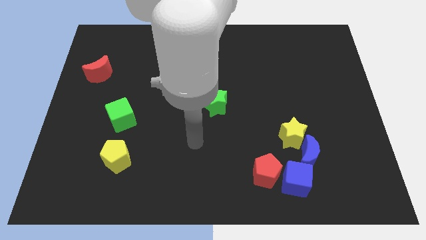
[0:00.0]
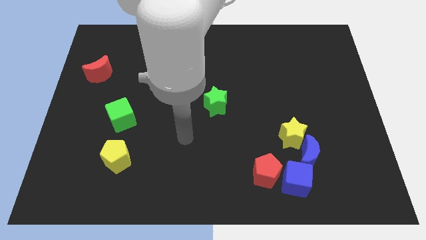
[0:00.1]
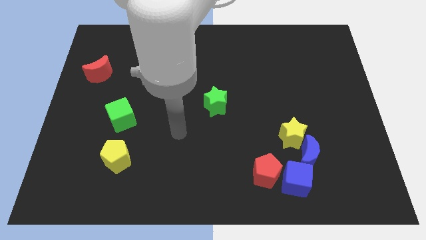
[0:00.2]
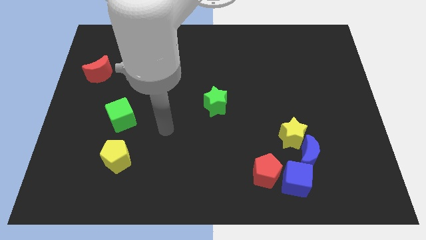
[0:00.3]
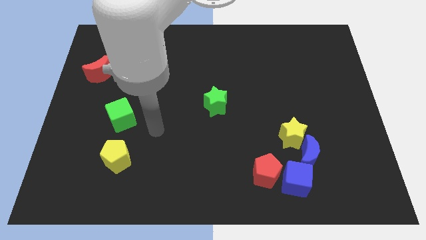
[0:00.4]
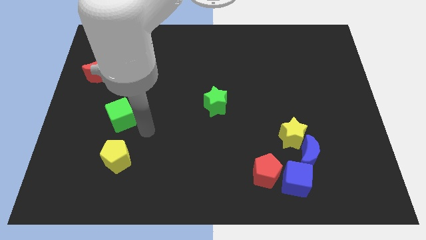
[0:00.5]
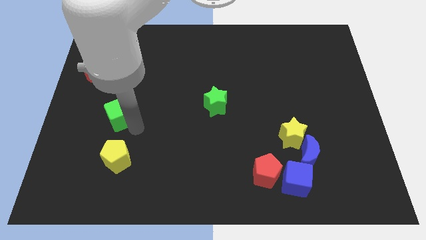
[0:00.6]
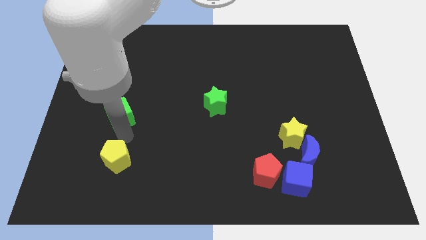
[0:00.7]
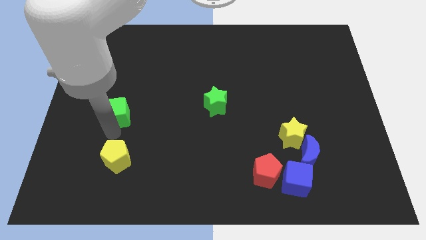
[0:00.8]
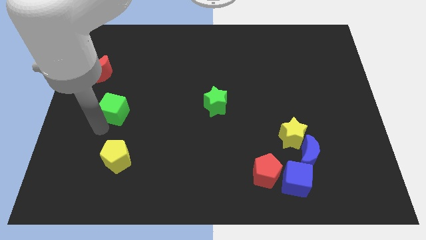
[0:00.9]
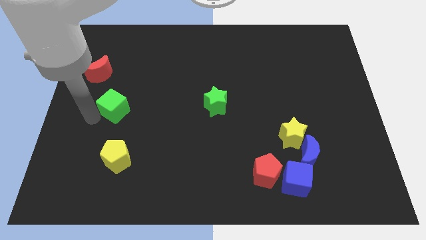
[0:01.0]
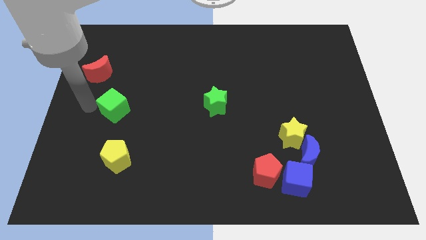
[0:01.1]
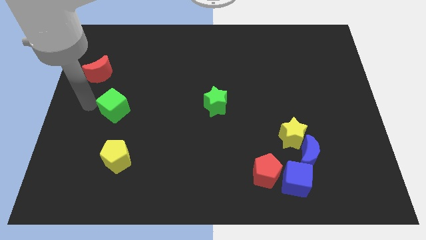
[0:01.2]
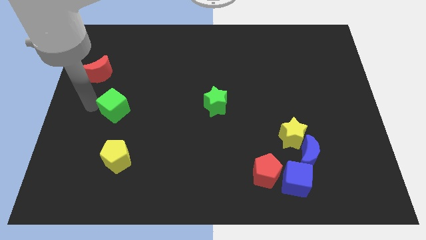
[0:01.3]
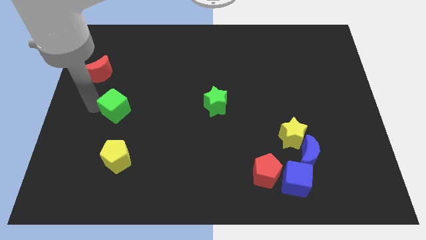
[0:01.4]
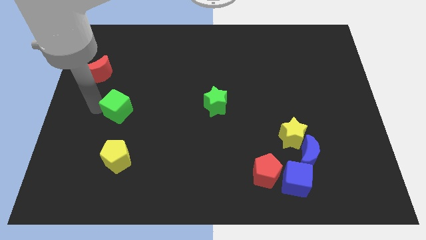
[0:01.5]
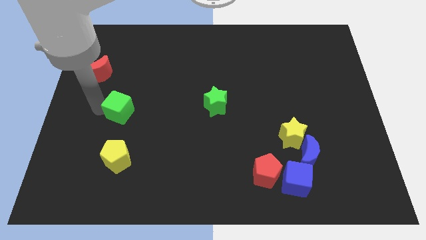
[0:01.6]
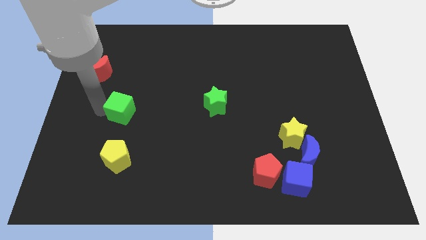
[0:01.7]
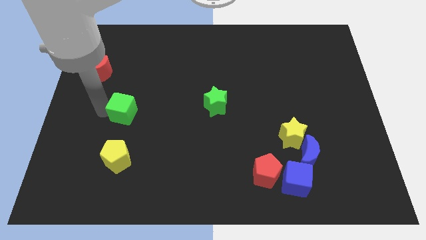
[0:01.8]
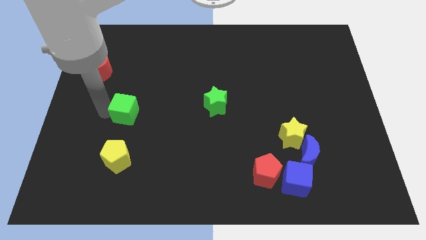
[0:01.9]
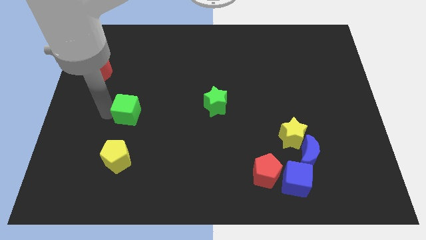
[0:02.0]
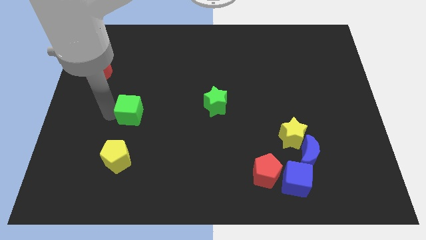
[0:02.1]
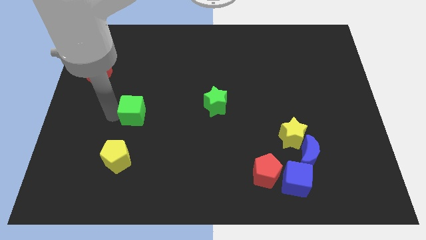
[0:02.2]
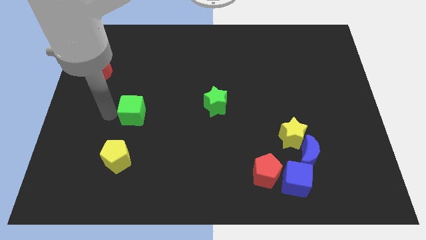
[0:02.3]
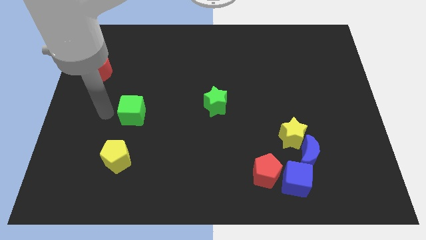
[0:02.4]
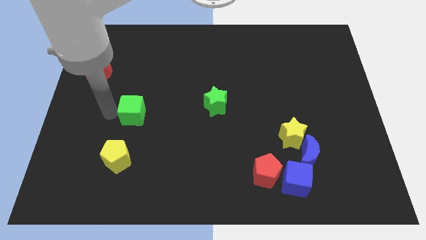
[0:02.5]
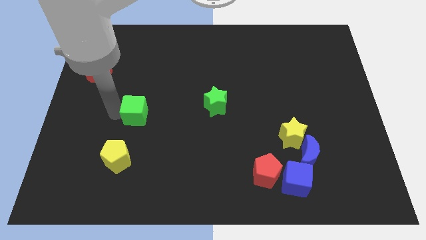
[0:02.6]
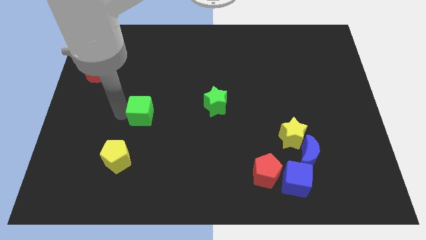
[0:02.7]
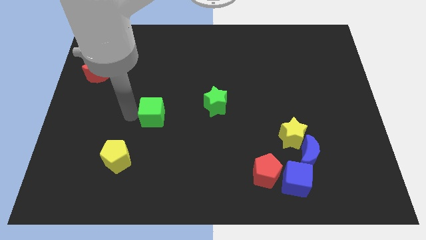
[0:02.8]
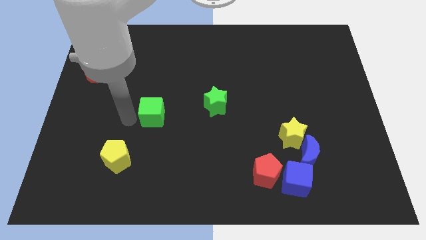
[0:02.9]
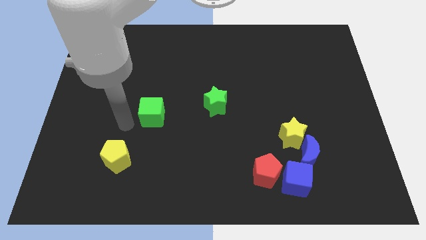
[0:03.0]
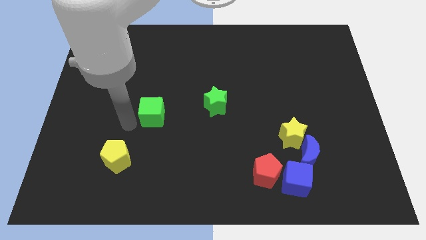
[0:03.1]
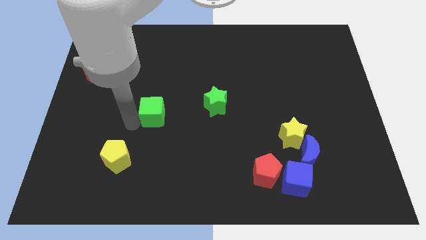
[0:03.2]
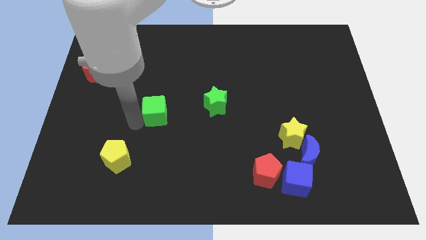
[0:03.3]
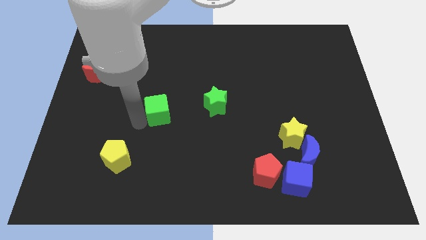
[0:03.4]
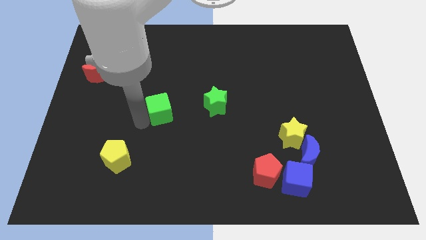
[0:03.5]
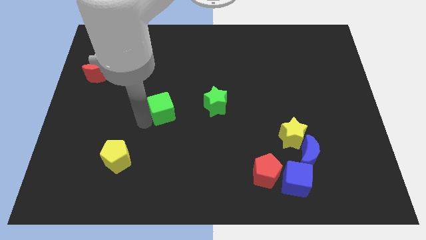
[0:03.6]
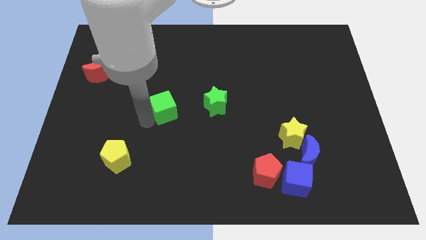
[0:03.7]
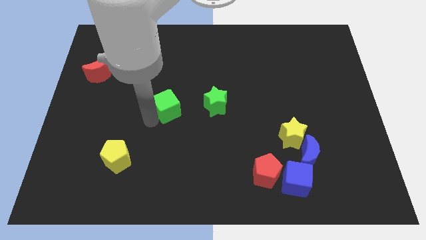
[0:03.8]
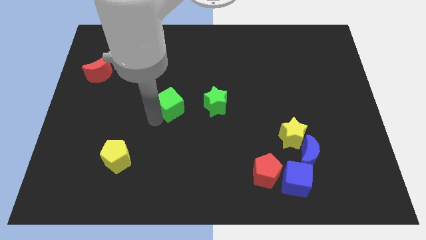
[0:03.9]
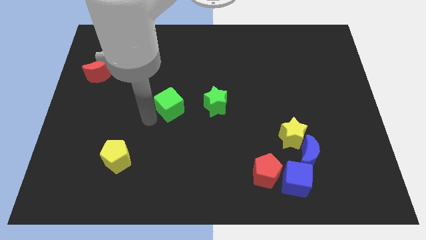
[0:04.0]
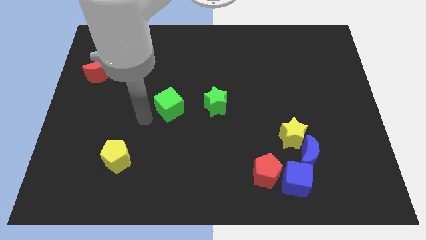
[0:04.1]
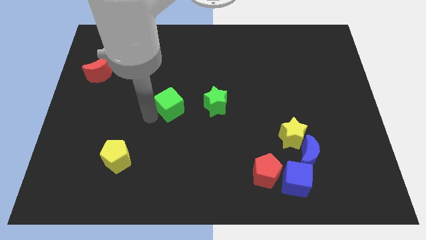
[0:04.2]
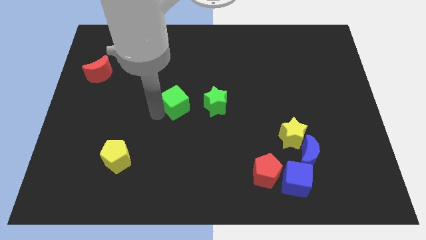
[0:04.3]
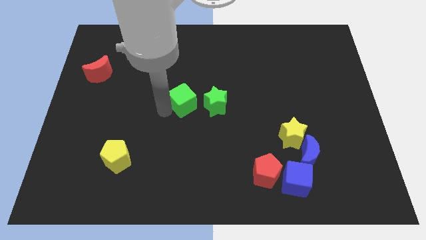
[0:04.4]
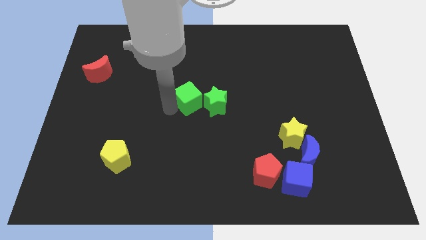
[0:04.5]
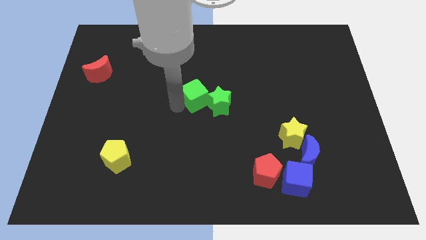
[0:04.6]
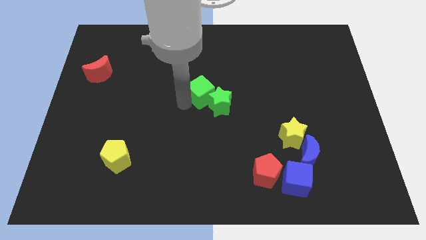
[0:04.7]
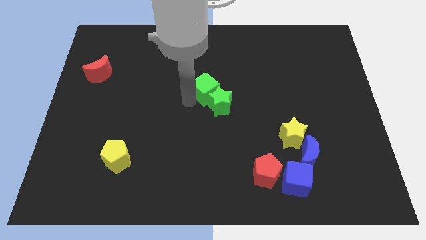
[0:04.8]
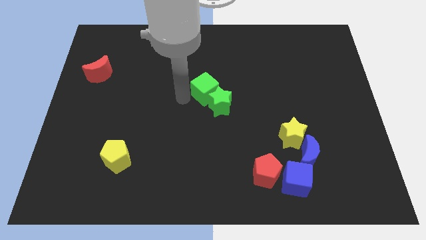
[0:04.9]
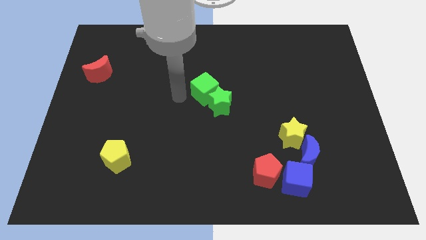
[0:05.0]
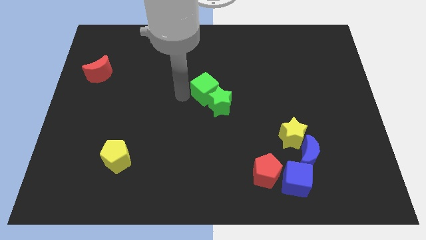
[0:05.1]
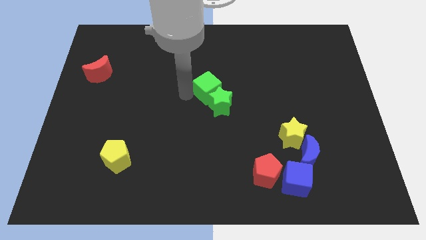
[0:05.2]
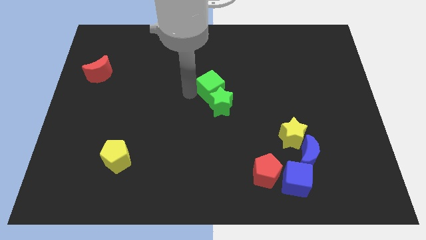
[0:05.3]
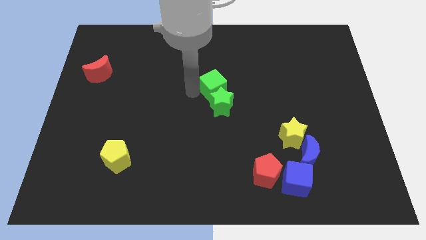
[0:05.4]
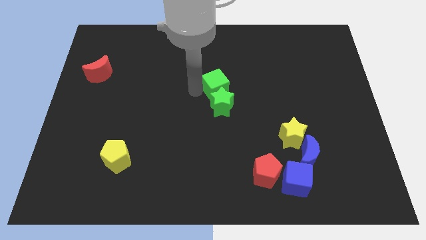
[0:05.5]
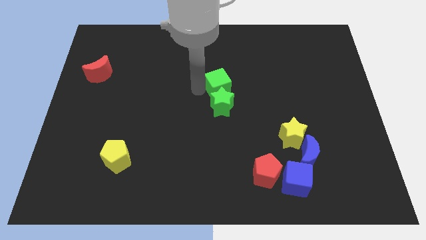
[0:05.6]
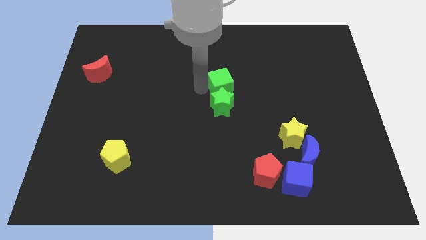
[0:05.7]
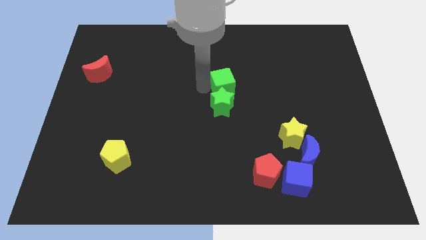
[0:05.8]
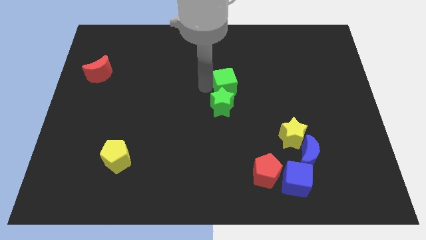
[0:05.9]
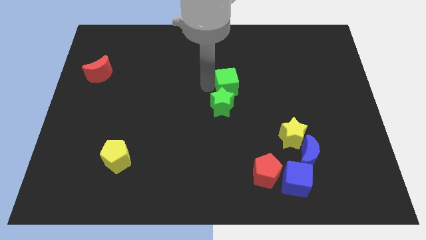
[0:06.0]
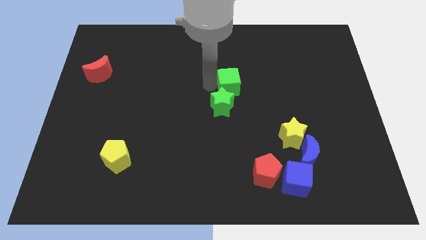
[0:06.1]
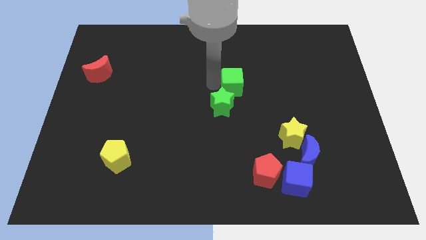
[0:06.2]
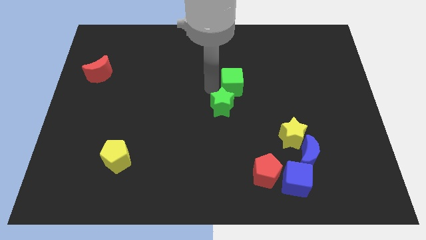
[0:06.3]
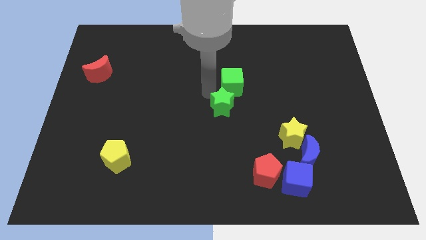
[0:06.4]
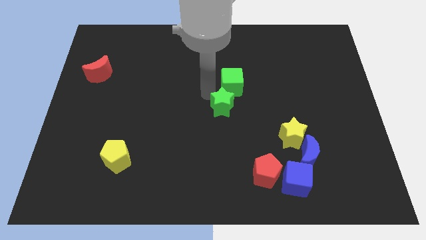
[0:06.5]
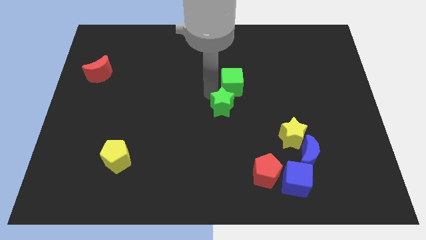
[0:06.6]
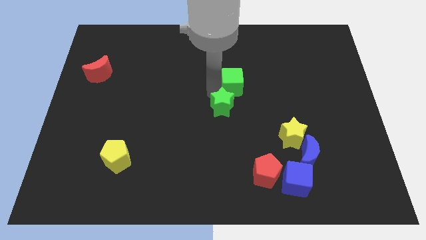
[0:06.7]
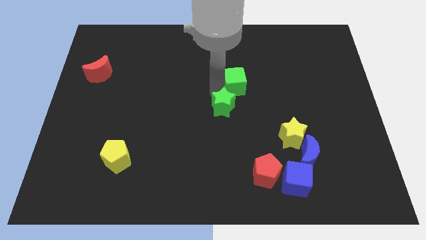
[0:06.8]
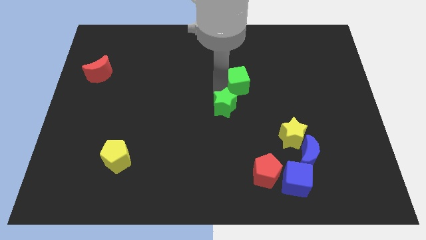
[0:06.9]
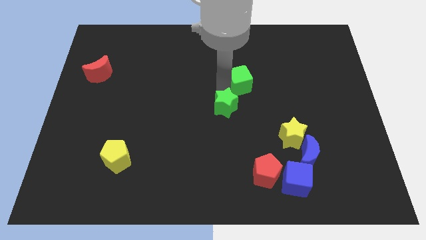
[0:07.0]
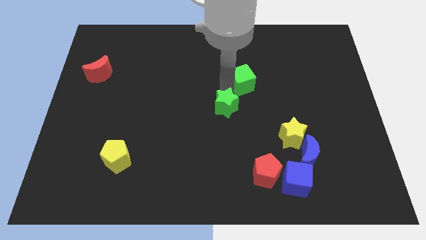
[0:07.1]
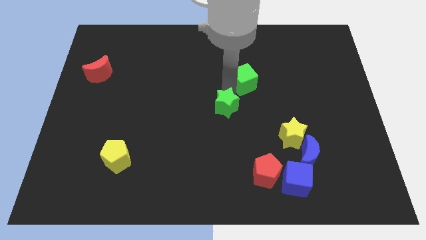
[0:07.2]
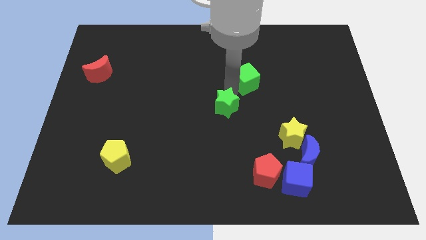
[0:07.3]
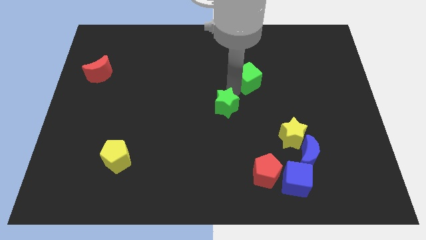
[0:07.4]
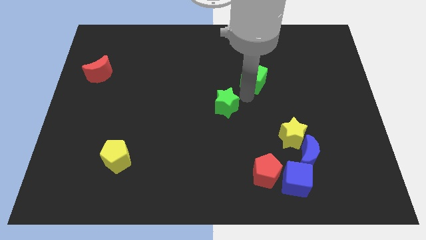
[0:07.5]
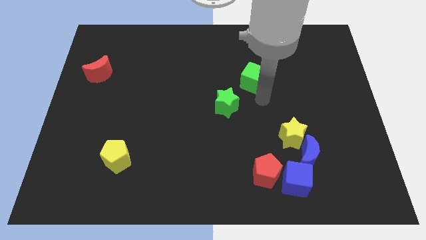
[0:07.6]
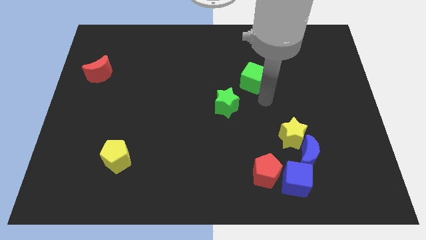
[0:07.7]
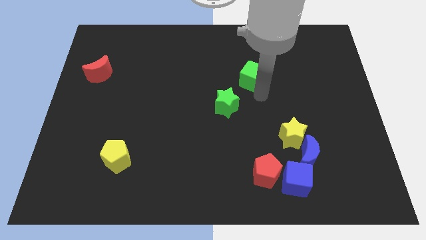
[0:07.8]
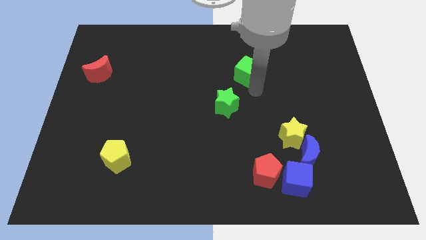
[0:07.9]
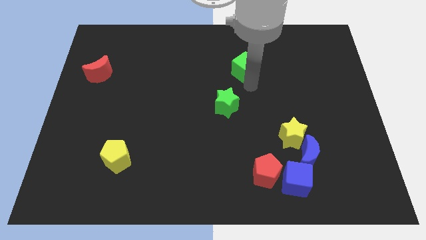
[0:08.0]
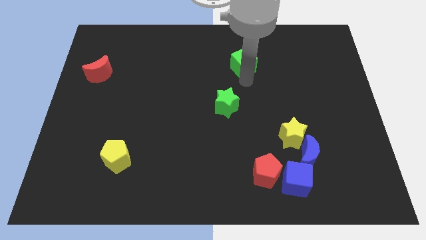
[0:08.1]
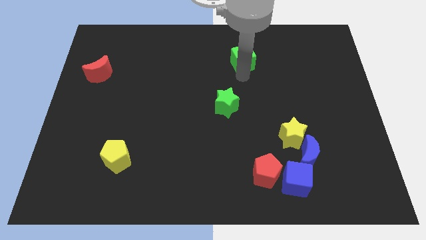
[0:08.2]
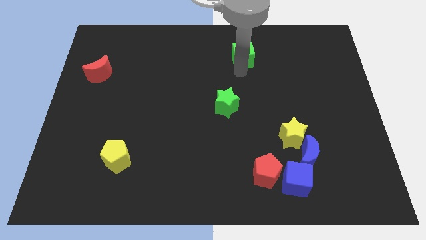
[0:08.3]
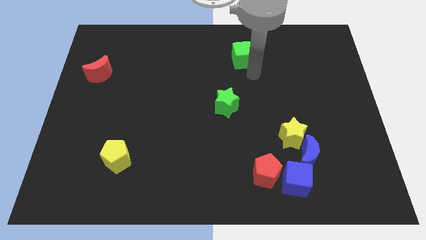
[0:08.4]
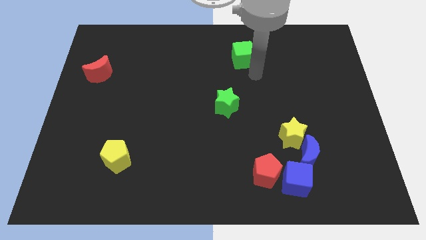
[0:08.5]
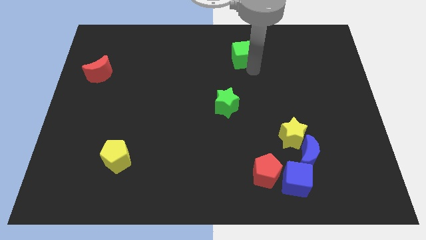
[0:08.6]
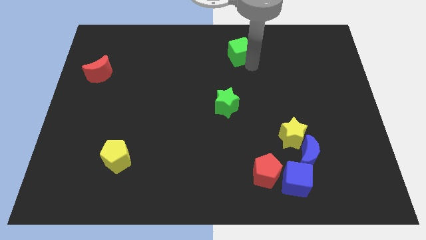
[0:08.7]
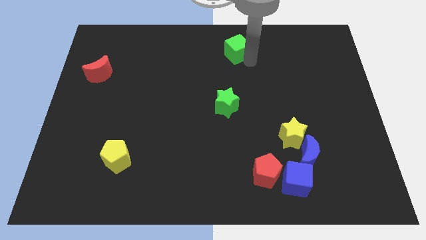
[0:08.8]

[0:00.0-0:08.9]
move the green cube to the top
